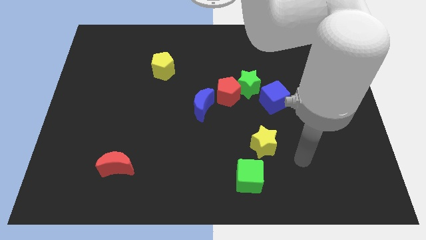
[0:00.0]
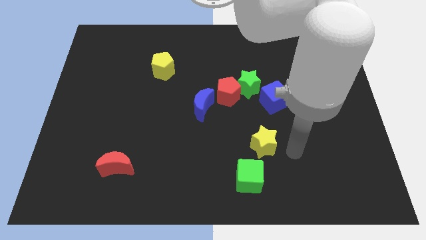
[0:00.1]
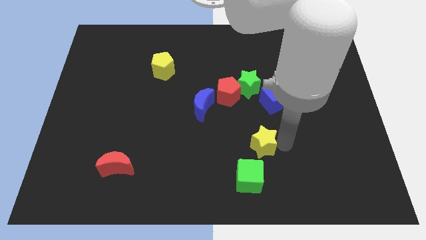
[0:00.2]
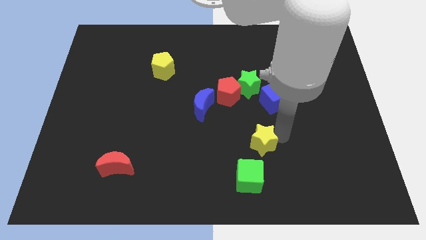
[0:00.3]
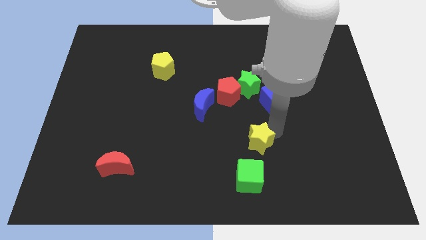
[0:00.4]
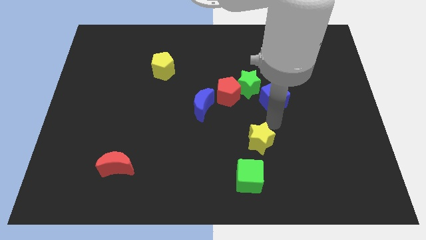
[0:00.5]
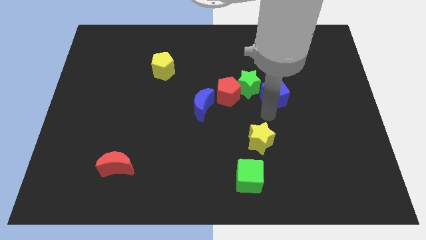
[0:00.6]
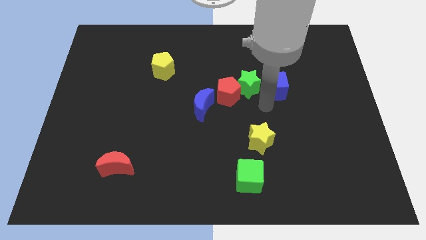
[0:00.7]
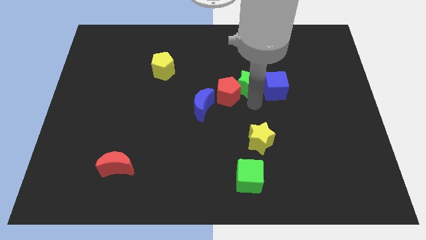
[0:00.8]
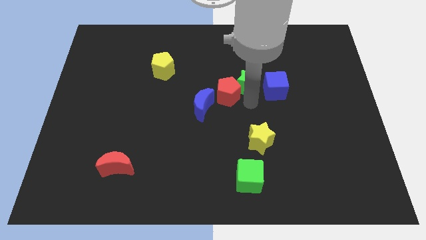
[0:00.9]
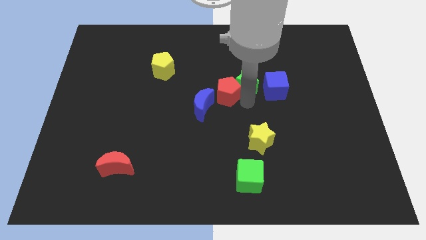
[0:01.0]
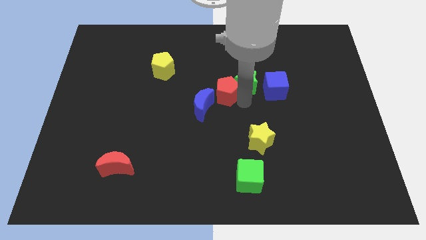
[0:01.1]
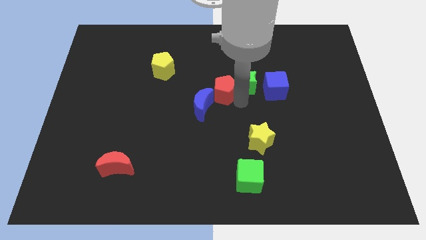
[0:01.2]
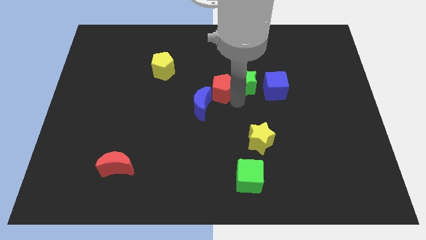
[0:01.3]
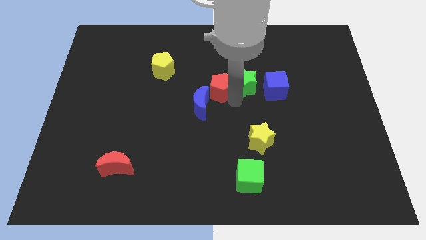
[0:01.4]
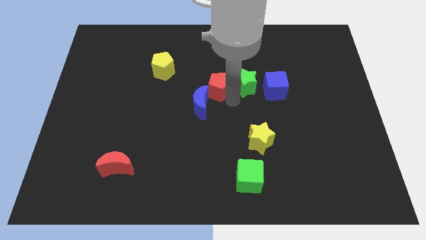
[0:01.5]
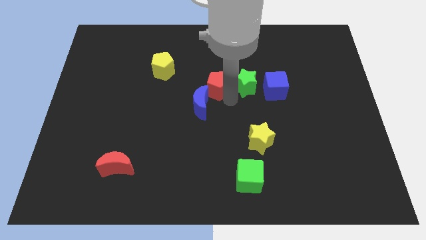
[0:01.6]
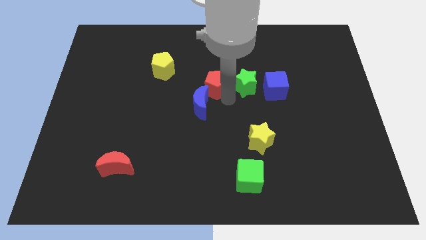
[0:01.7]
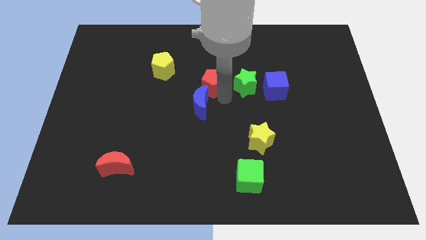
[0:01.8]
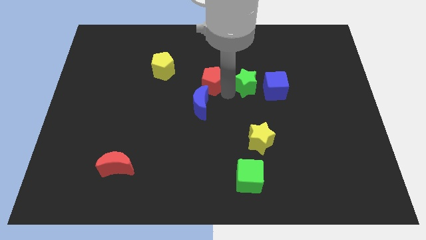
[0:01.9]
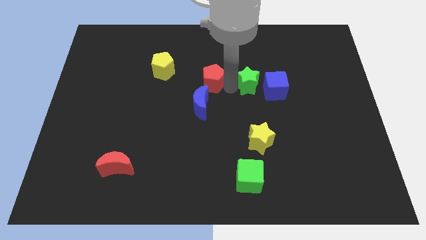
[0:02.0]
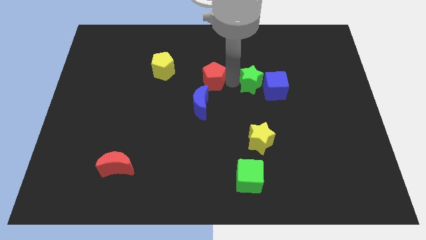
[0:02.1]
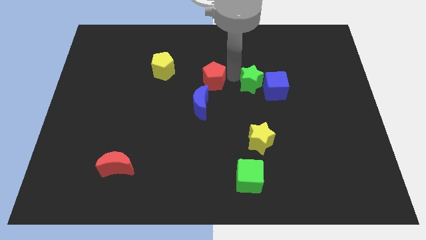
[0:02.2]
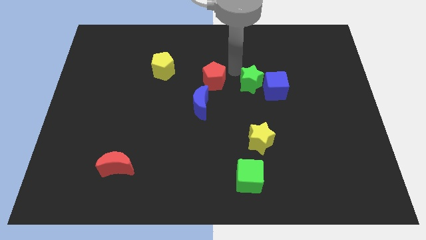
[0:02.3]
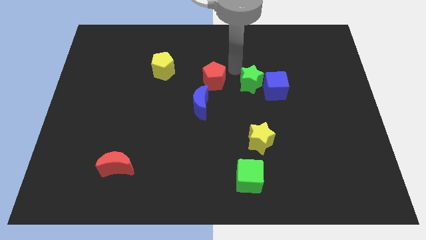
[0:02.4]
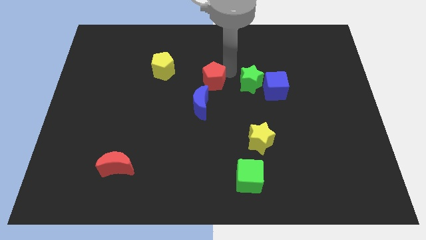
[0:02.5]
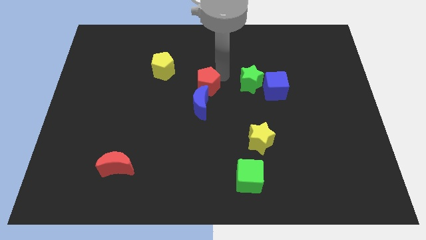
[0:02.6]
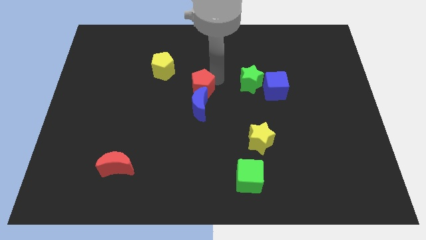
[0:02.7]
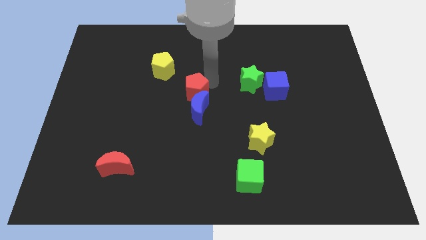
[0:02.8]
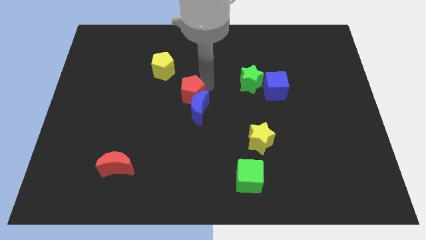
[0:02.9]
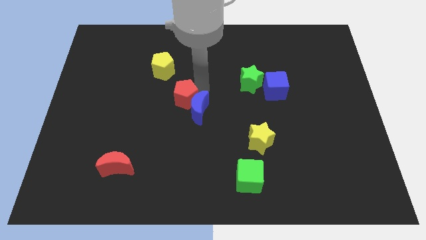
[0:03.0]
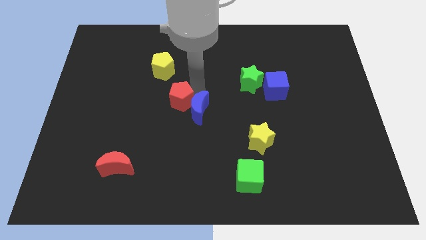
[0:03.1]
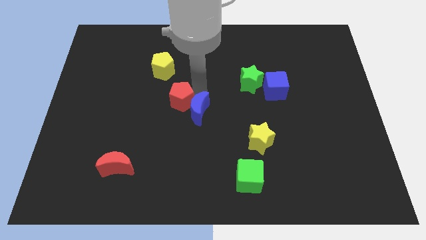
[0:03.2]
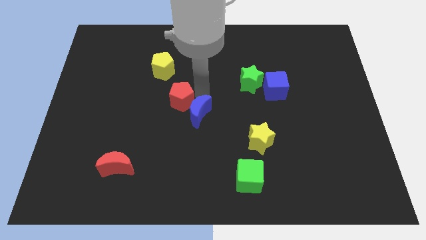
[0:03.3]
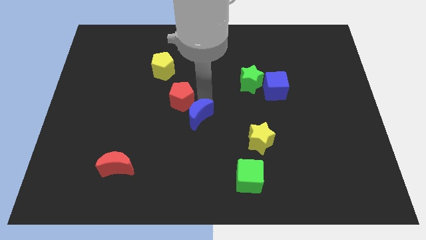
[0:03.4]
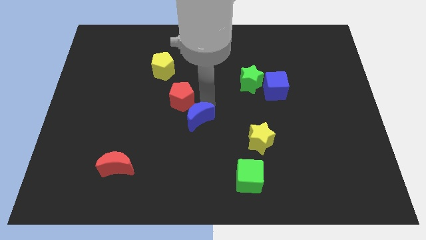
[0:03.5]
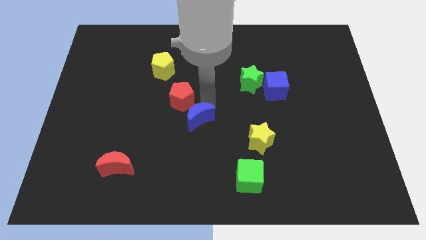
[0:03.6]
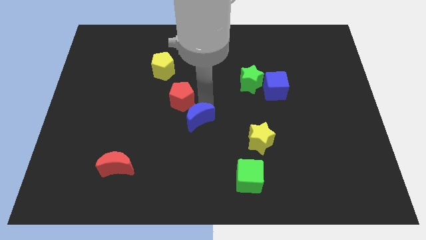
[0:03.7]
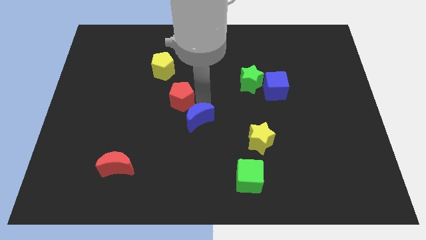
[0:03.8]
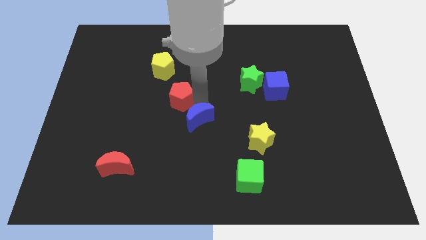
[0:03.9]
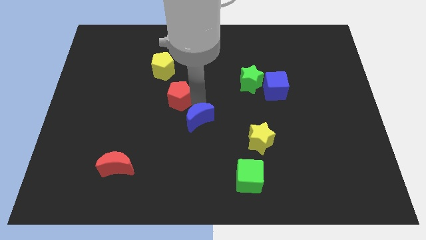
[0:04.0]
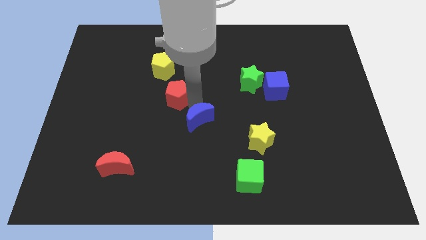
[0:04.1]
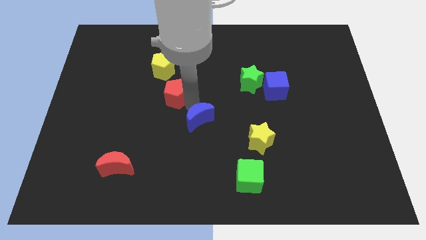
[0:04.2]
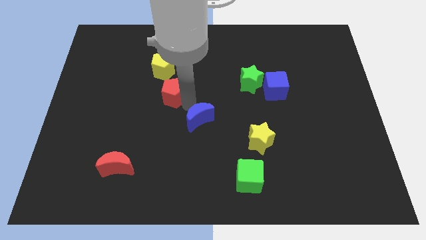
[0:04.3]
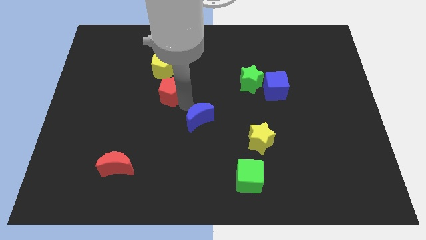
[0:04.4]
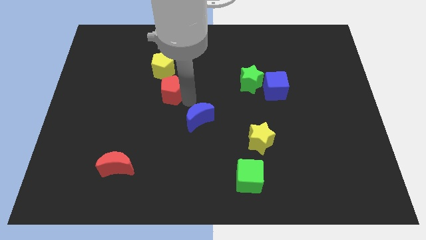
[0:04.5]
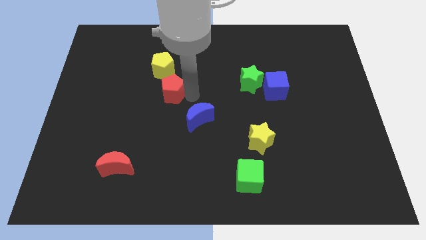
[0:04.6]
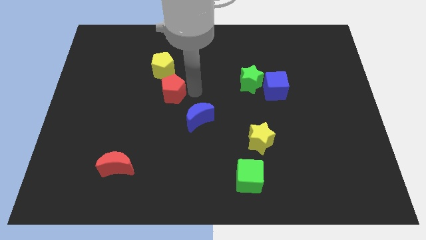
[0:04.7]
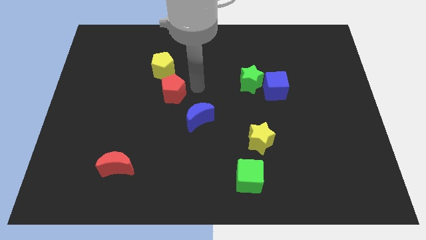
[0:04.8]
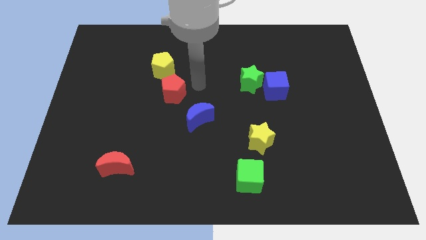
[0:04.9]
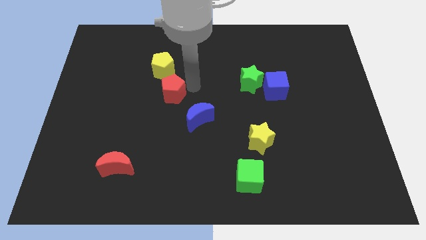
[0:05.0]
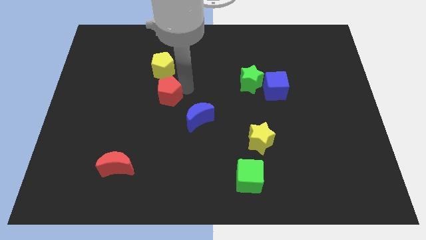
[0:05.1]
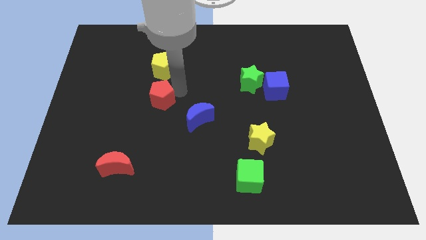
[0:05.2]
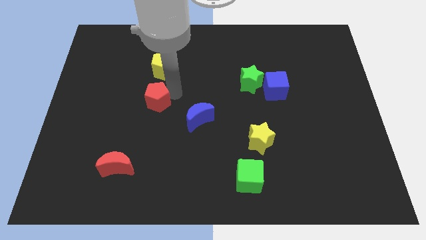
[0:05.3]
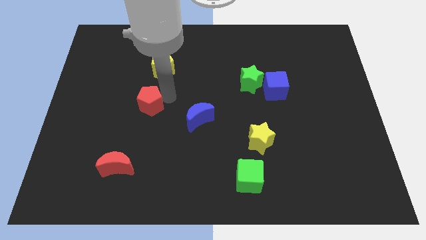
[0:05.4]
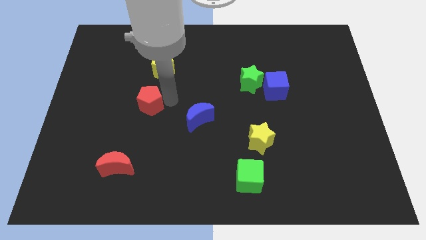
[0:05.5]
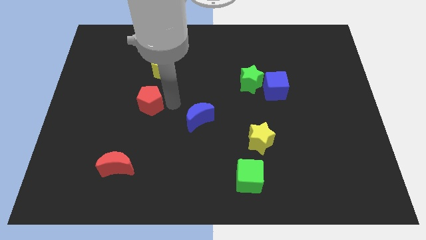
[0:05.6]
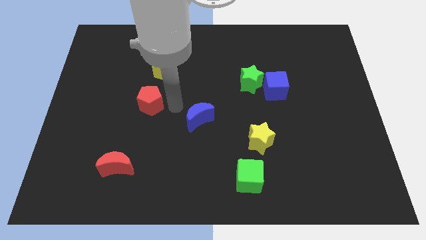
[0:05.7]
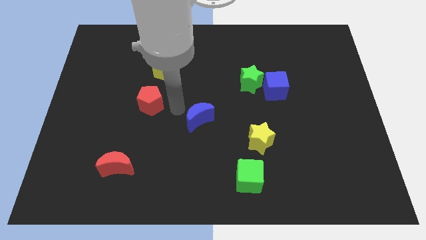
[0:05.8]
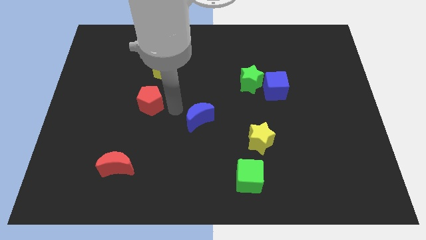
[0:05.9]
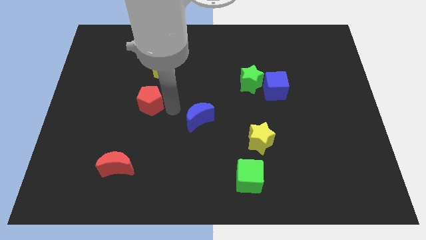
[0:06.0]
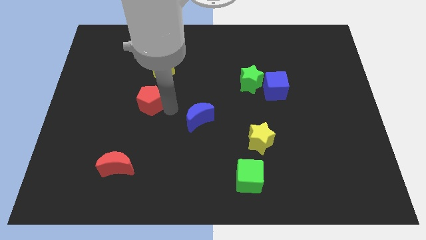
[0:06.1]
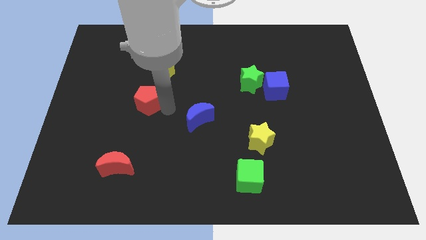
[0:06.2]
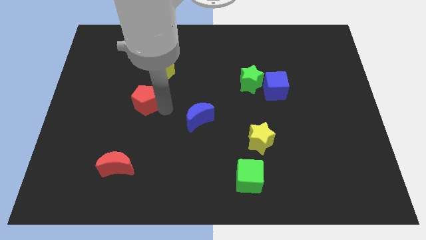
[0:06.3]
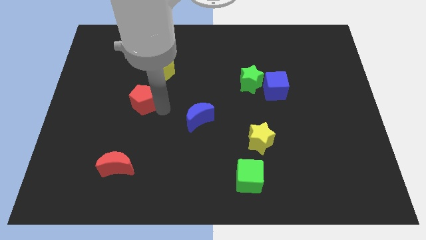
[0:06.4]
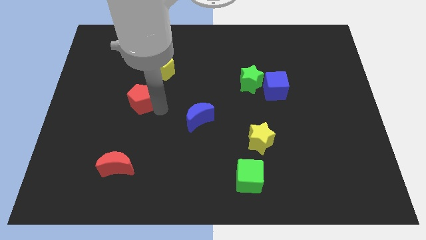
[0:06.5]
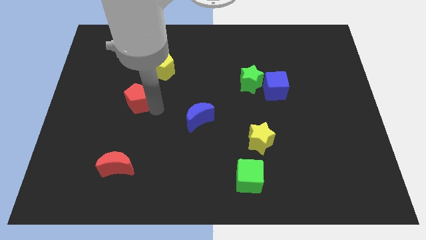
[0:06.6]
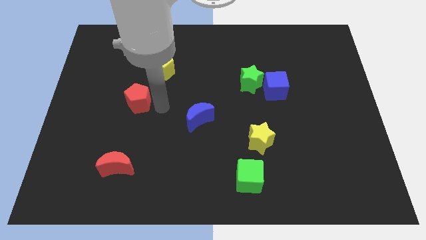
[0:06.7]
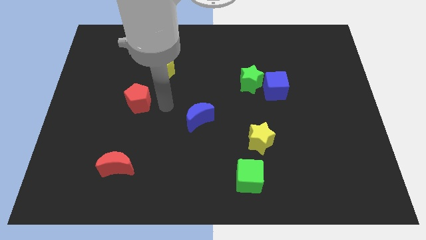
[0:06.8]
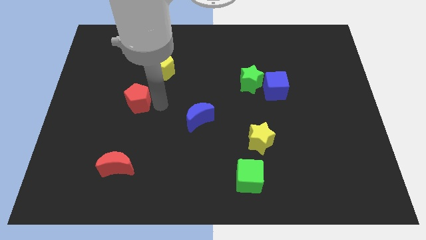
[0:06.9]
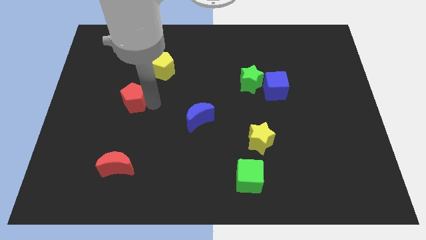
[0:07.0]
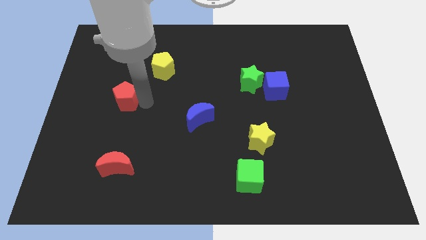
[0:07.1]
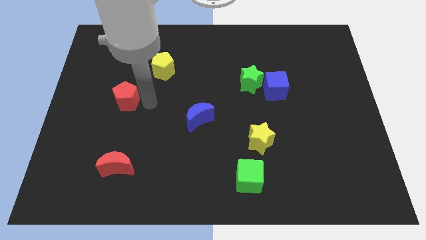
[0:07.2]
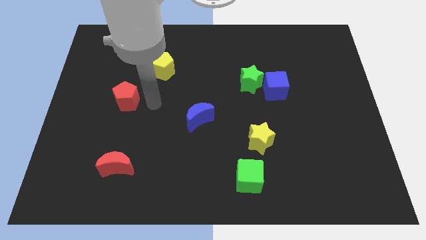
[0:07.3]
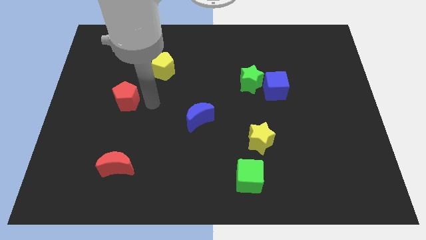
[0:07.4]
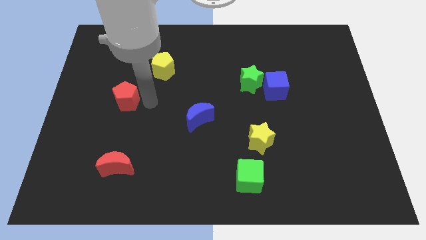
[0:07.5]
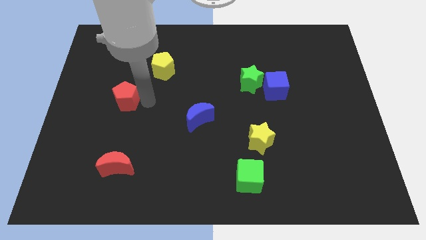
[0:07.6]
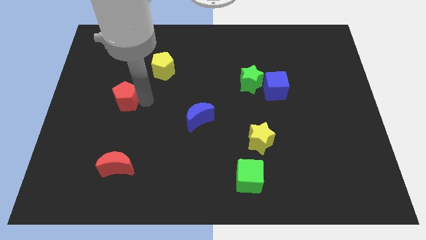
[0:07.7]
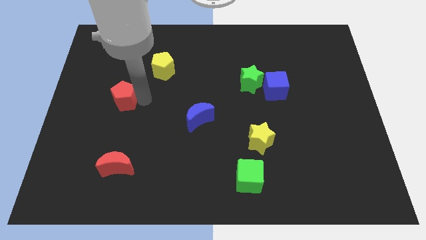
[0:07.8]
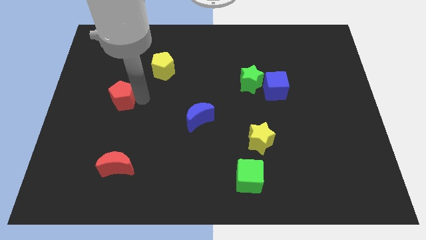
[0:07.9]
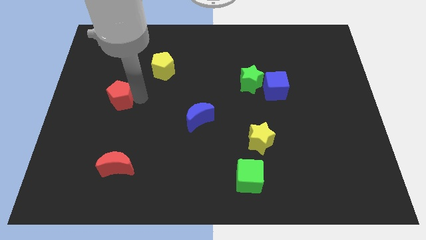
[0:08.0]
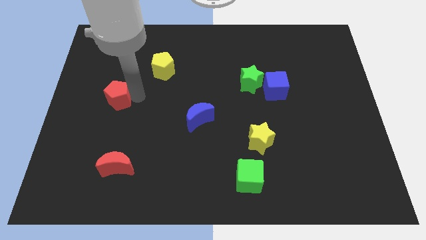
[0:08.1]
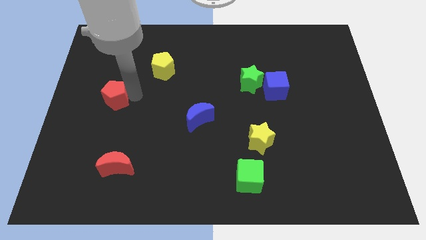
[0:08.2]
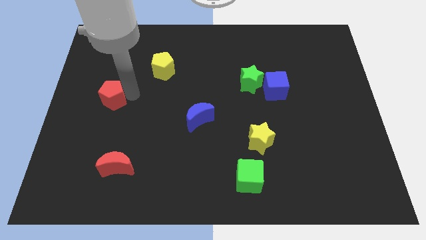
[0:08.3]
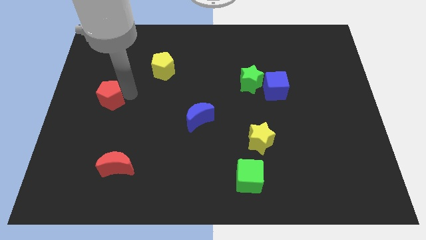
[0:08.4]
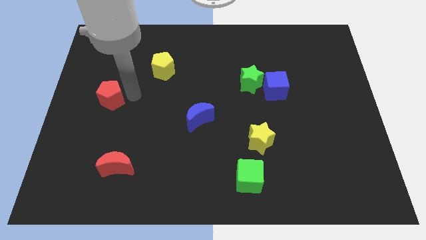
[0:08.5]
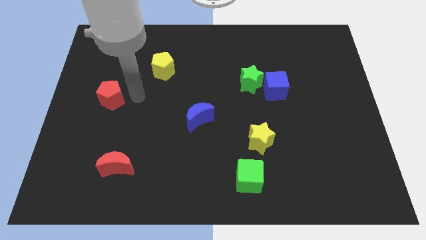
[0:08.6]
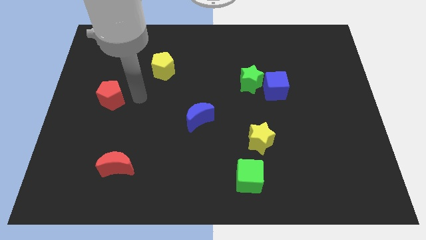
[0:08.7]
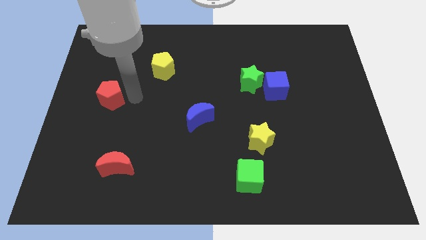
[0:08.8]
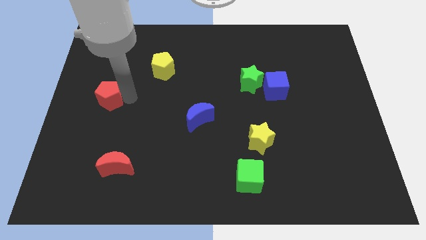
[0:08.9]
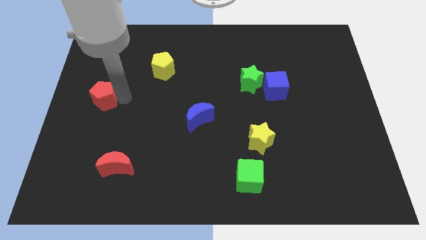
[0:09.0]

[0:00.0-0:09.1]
slide the red pentagon to the left side of the board
